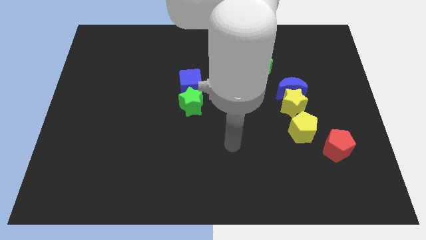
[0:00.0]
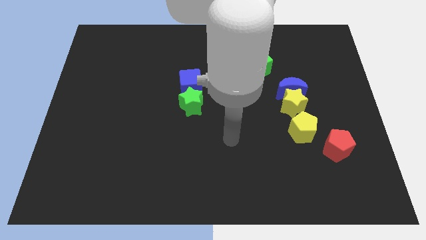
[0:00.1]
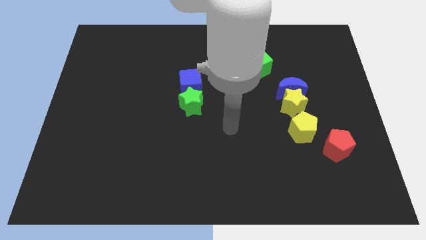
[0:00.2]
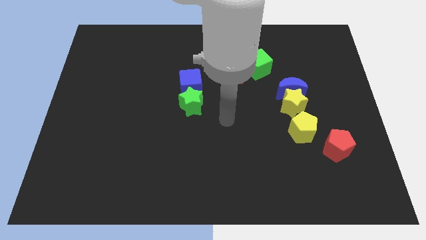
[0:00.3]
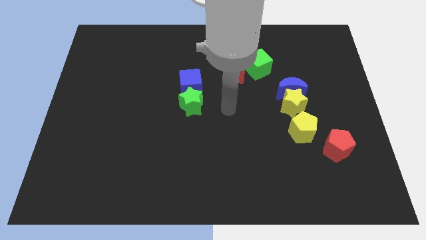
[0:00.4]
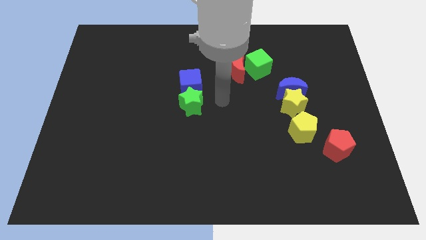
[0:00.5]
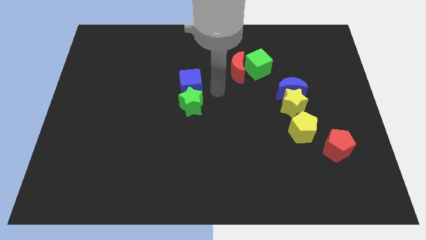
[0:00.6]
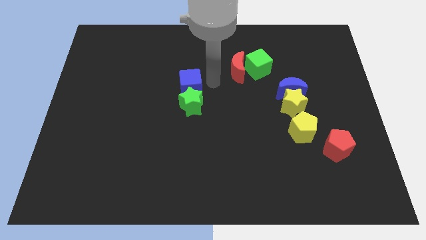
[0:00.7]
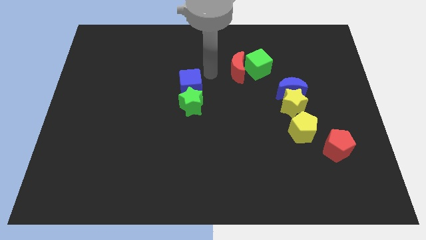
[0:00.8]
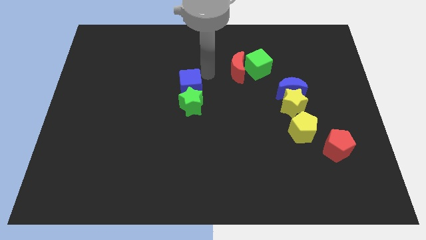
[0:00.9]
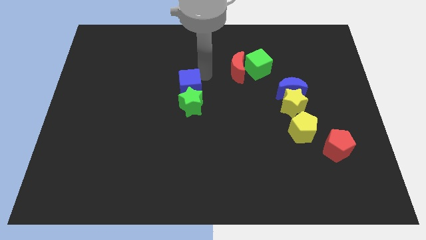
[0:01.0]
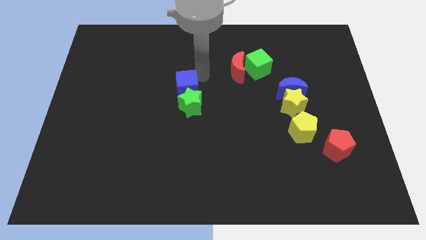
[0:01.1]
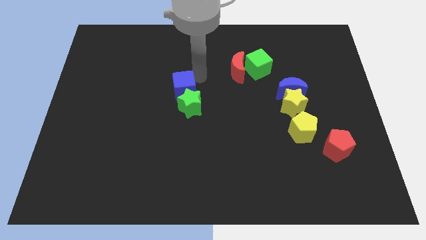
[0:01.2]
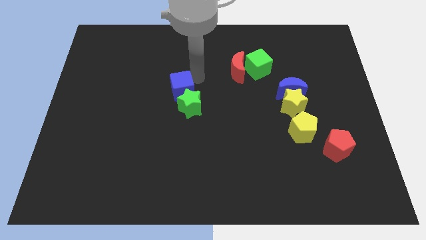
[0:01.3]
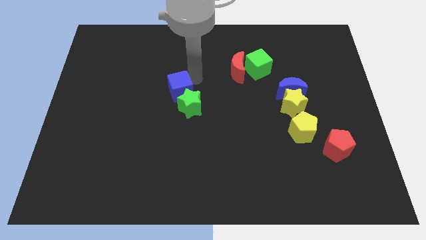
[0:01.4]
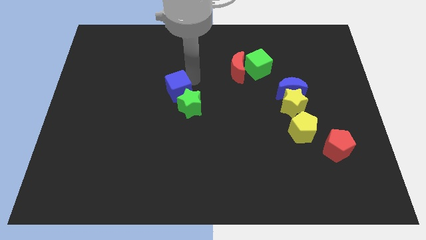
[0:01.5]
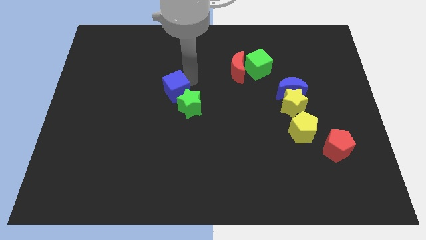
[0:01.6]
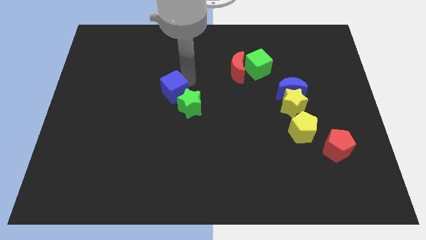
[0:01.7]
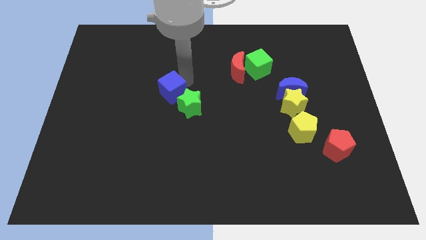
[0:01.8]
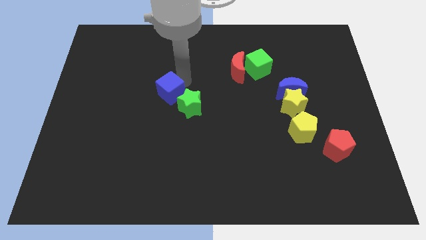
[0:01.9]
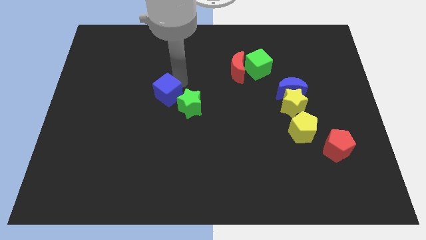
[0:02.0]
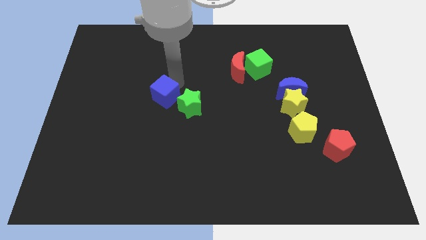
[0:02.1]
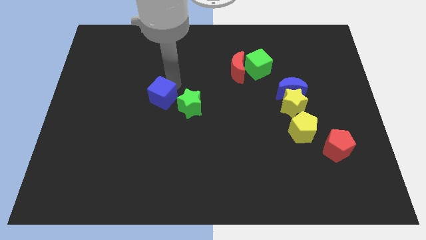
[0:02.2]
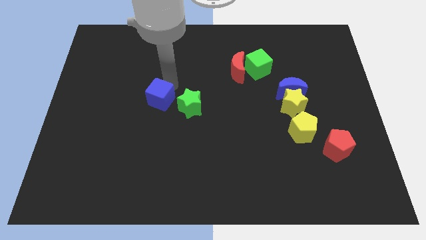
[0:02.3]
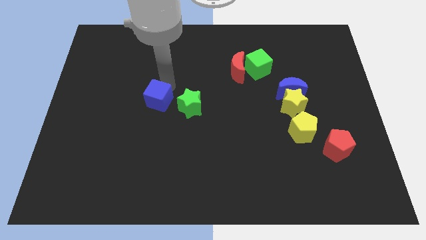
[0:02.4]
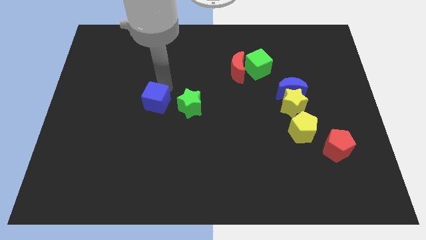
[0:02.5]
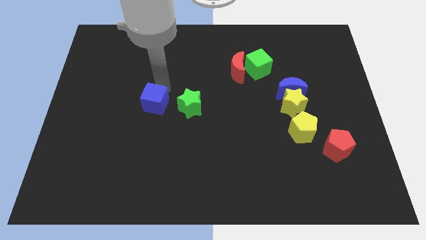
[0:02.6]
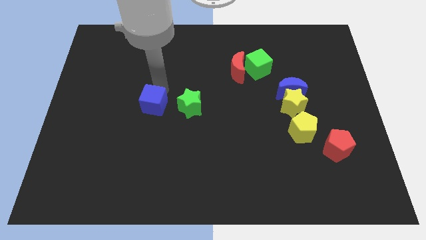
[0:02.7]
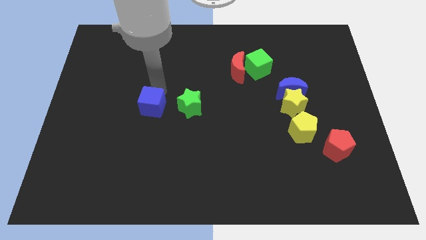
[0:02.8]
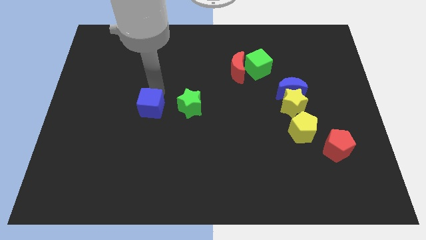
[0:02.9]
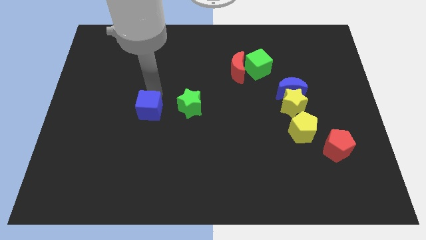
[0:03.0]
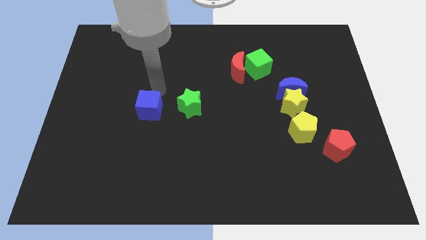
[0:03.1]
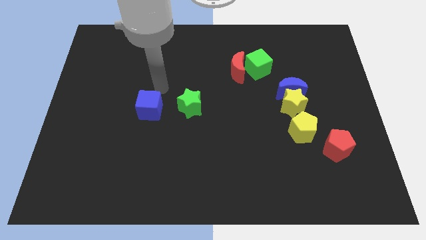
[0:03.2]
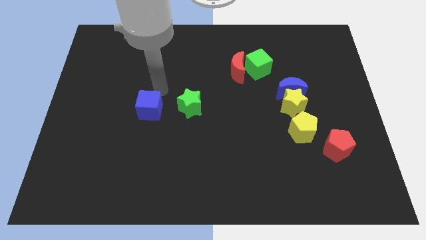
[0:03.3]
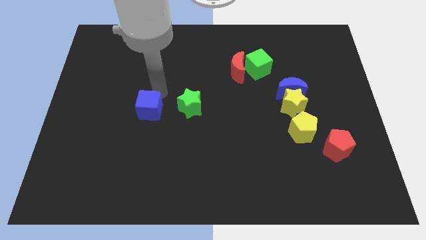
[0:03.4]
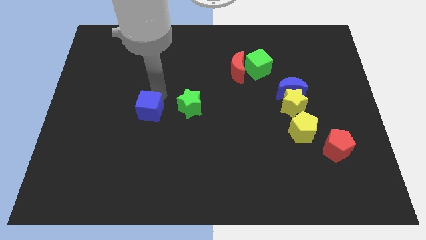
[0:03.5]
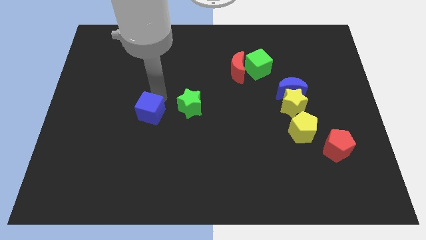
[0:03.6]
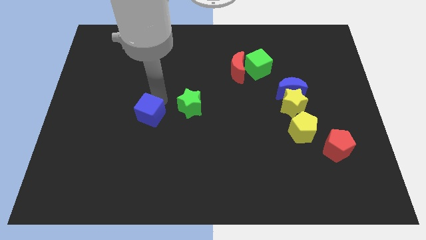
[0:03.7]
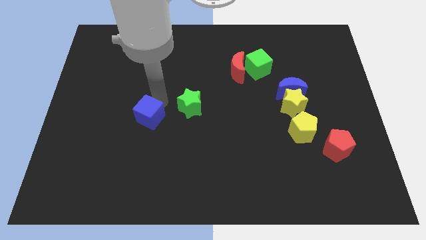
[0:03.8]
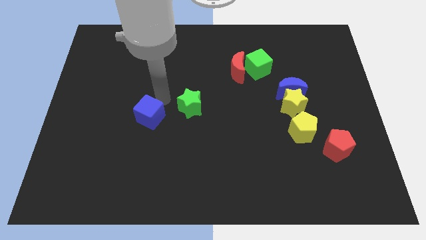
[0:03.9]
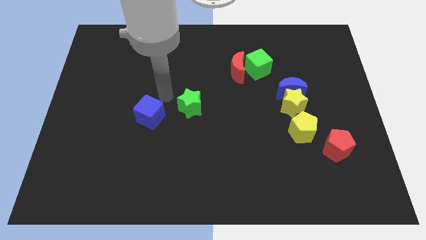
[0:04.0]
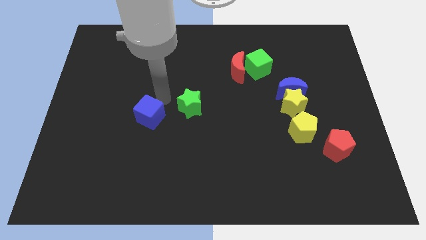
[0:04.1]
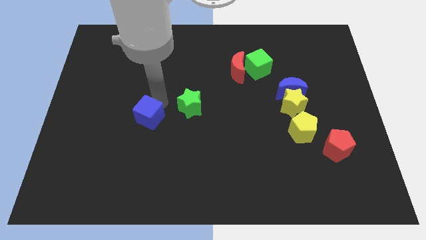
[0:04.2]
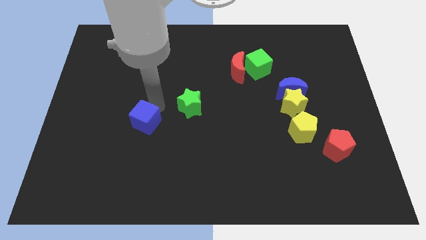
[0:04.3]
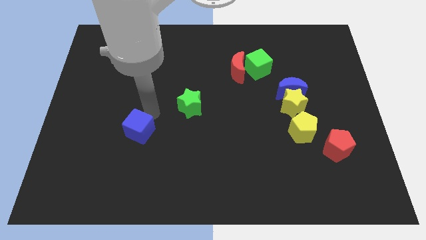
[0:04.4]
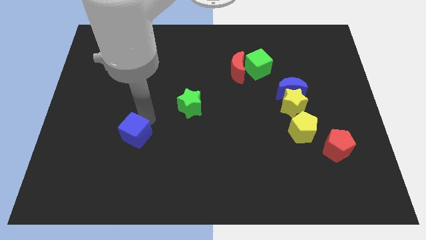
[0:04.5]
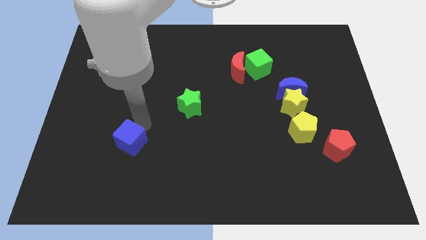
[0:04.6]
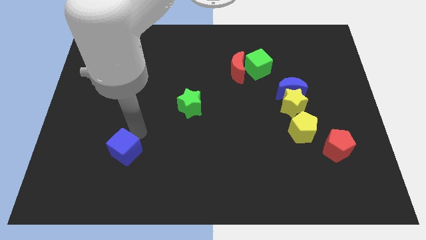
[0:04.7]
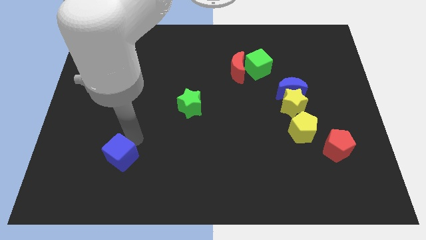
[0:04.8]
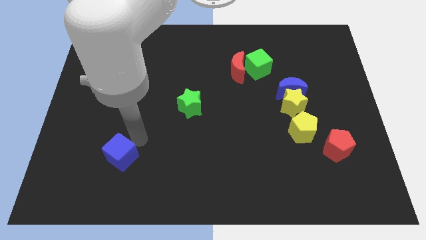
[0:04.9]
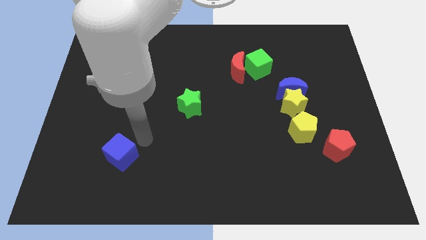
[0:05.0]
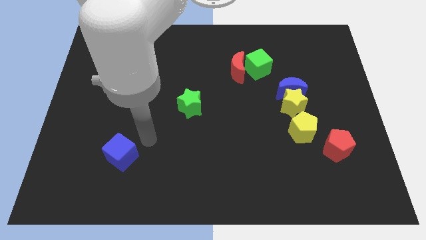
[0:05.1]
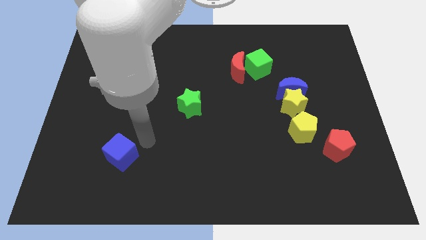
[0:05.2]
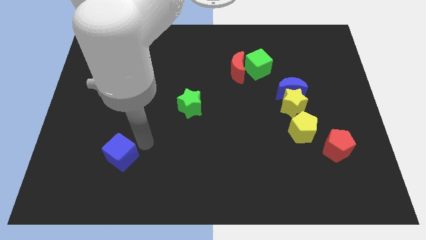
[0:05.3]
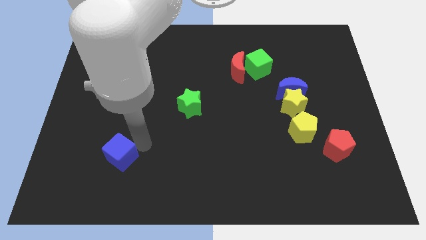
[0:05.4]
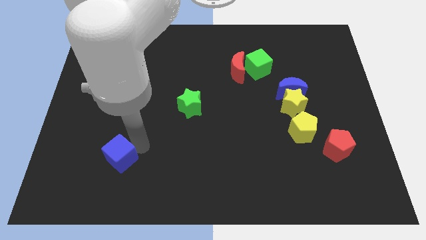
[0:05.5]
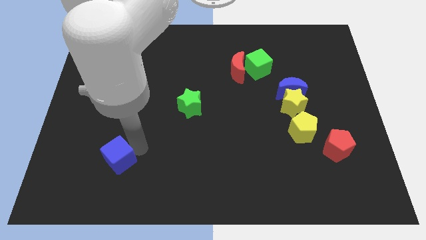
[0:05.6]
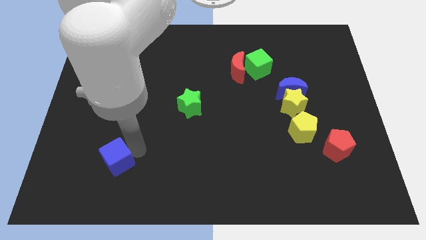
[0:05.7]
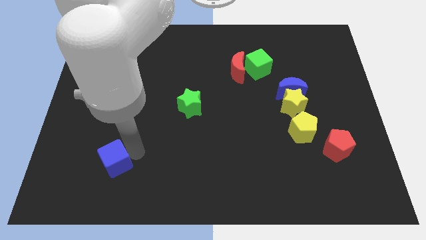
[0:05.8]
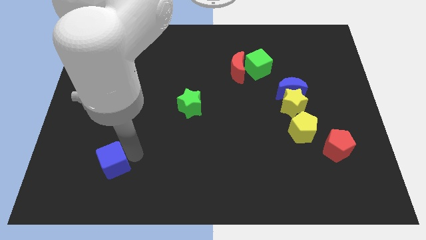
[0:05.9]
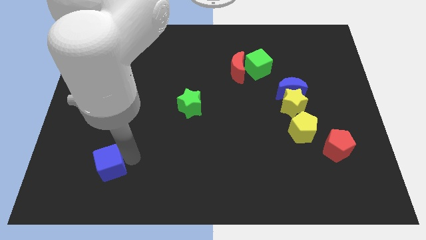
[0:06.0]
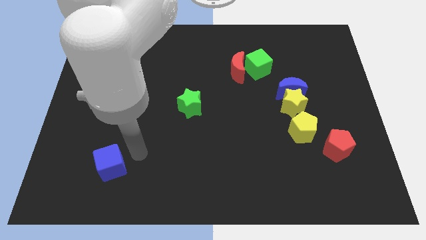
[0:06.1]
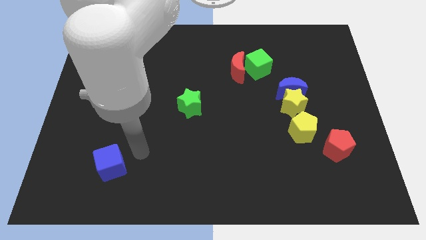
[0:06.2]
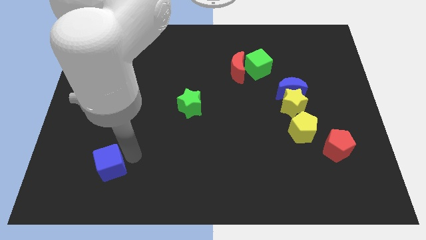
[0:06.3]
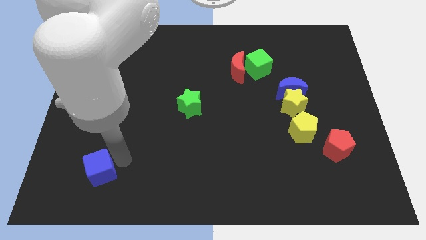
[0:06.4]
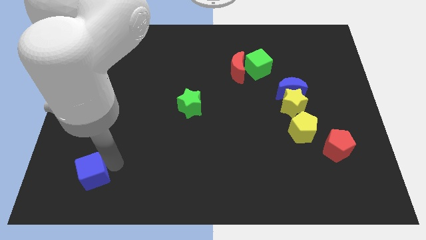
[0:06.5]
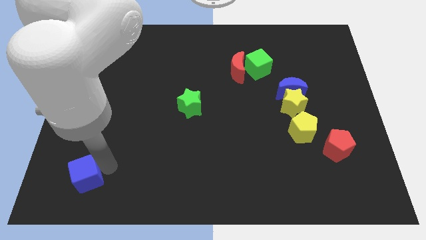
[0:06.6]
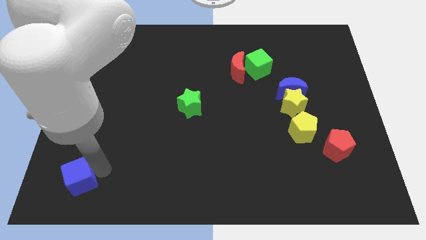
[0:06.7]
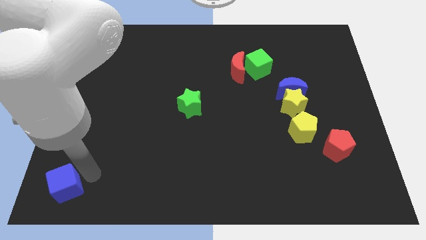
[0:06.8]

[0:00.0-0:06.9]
push the blue cube to the bottom left corner
